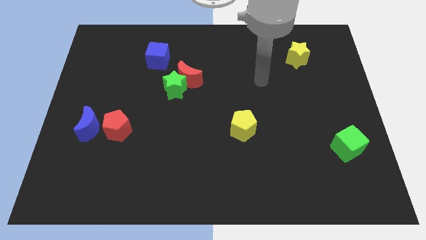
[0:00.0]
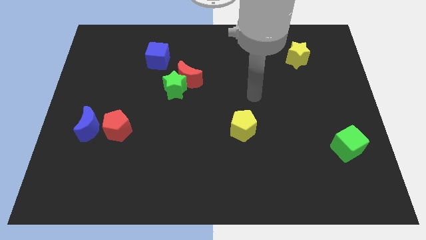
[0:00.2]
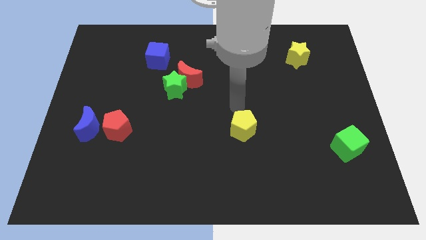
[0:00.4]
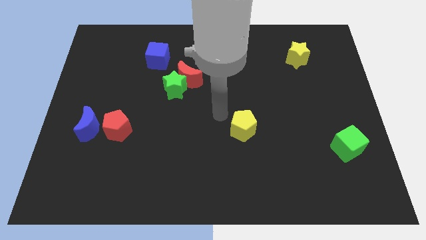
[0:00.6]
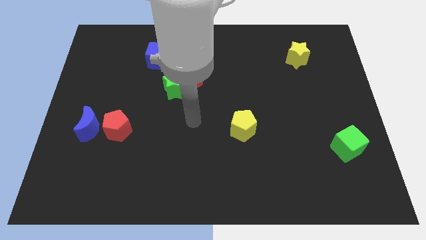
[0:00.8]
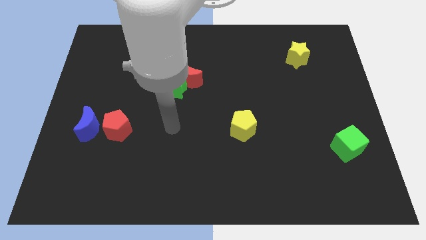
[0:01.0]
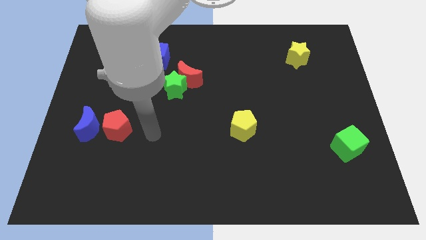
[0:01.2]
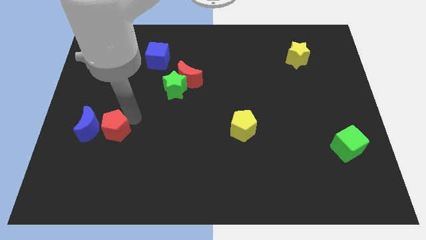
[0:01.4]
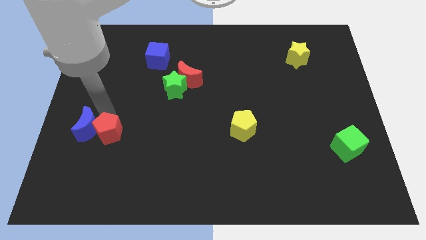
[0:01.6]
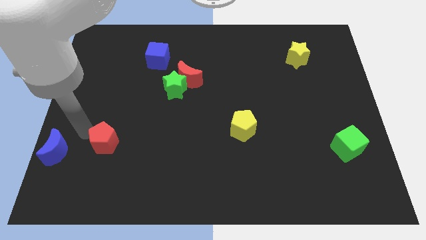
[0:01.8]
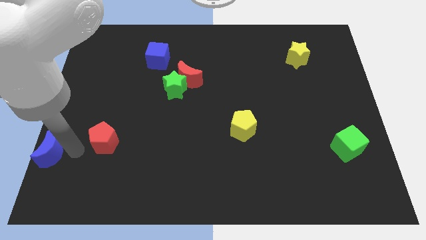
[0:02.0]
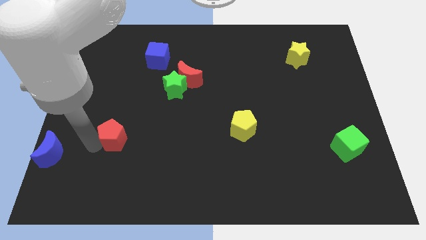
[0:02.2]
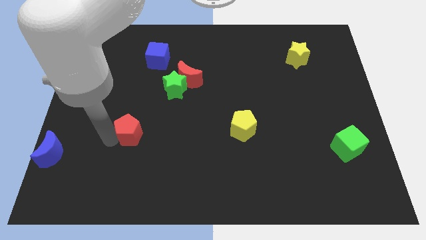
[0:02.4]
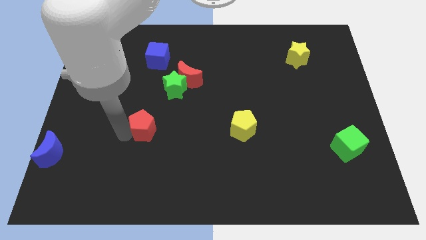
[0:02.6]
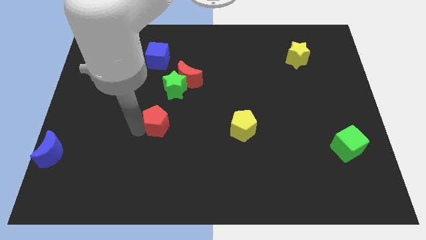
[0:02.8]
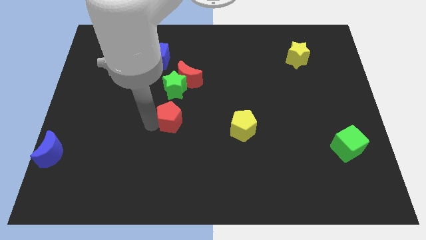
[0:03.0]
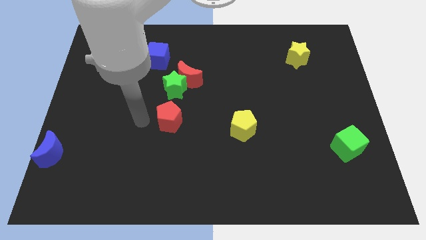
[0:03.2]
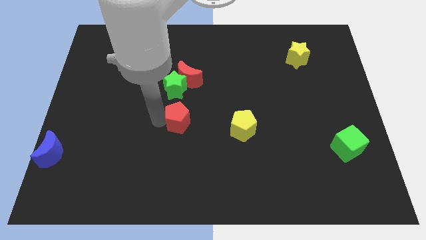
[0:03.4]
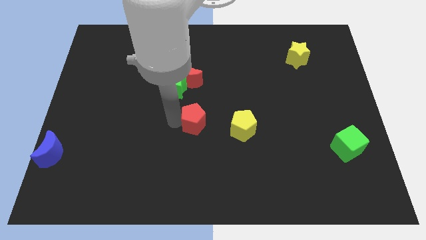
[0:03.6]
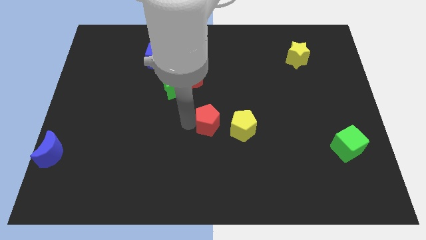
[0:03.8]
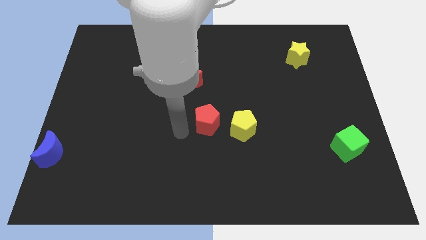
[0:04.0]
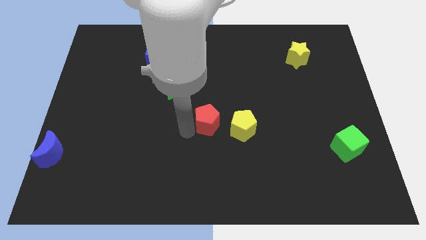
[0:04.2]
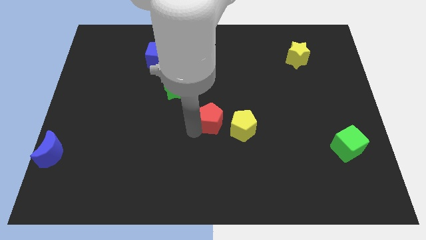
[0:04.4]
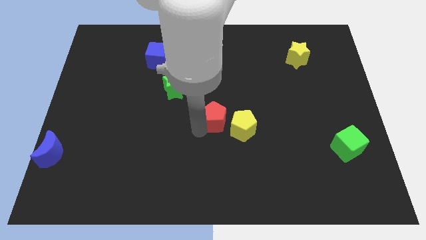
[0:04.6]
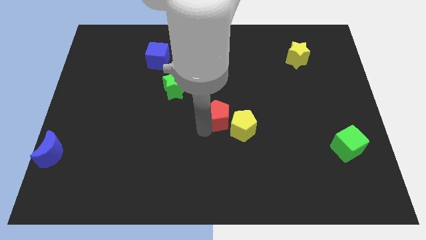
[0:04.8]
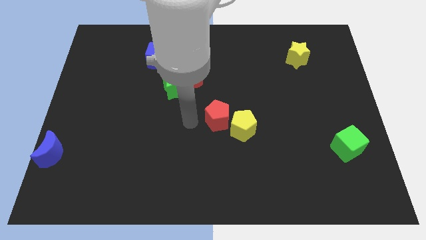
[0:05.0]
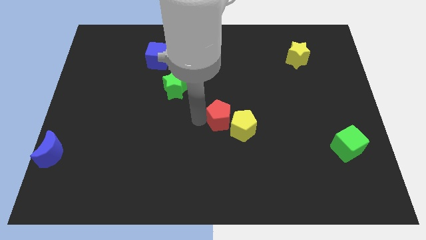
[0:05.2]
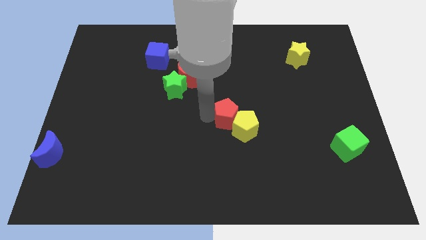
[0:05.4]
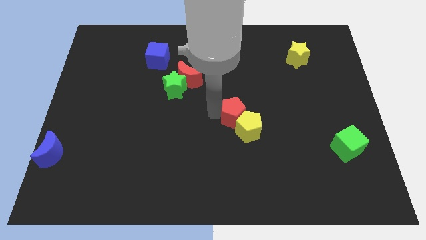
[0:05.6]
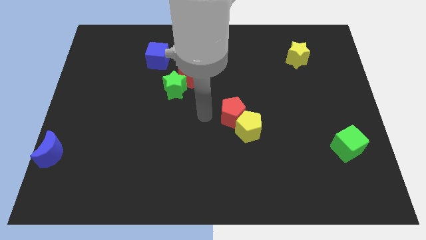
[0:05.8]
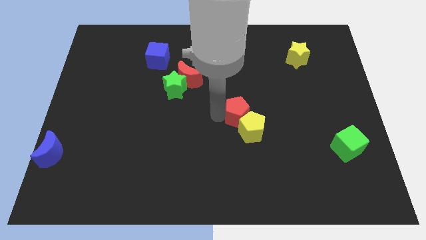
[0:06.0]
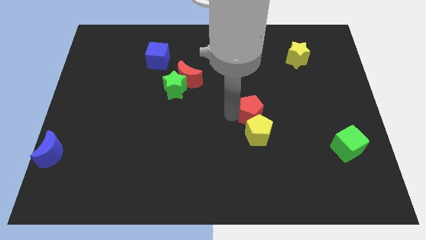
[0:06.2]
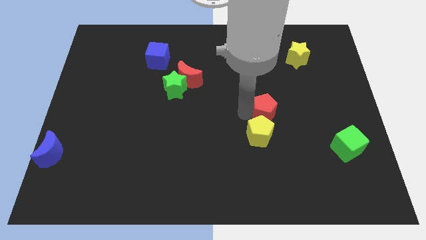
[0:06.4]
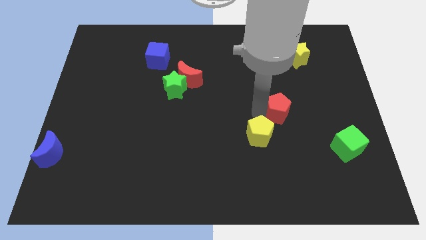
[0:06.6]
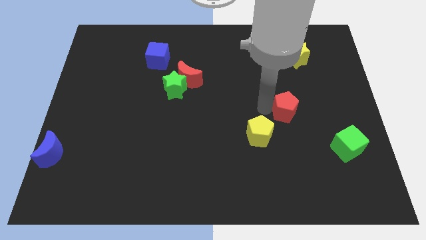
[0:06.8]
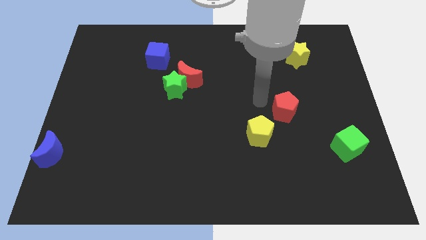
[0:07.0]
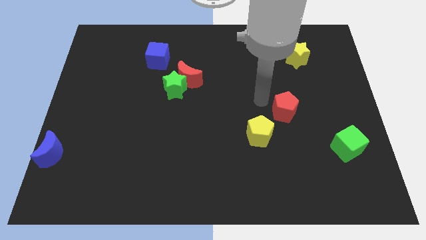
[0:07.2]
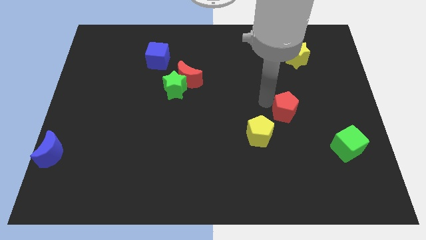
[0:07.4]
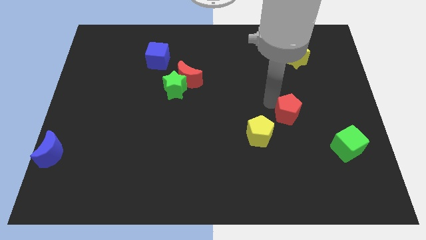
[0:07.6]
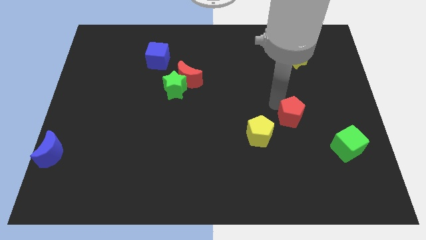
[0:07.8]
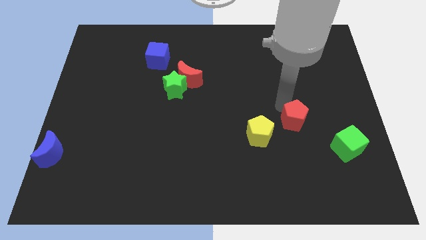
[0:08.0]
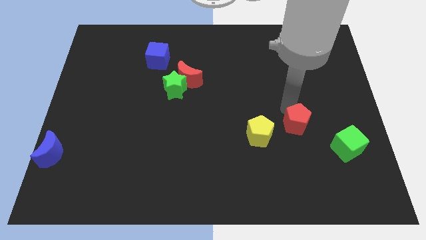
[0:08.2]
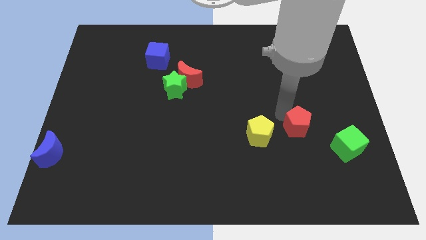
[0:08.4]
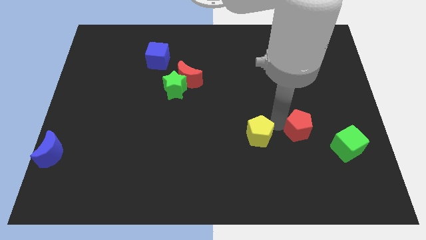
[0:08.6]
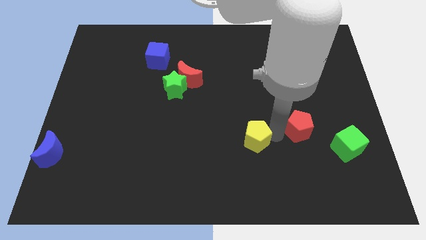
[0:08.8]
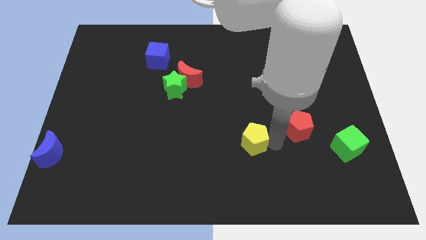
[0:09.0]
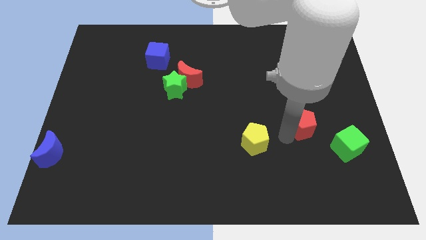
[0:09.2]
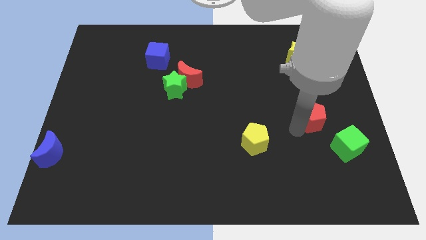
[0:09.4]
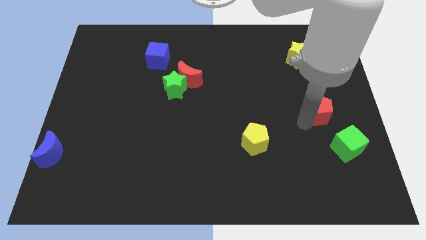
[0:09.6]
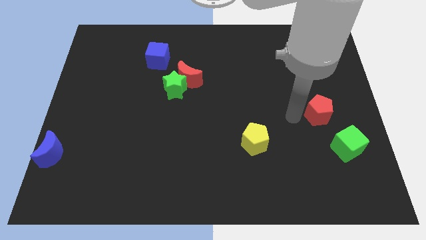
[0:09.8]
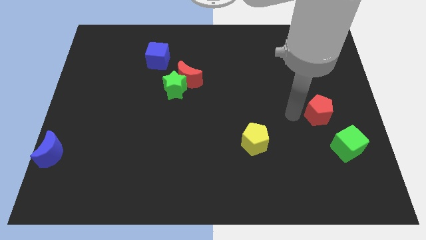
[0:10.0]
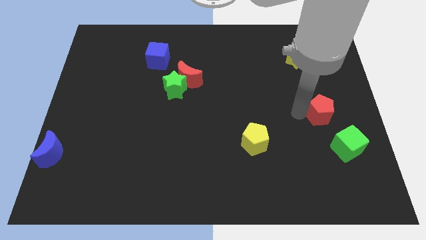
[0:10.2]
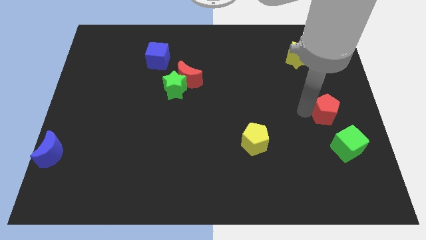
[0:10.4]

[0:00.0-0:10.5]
move the red pentagon to the center right

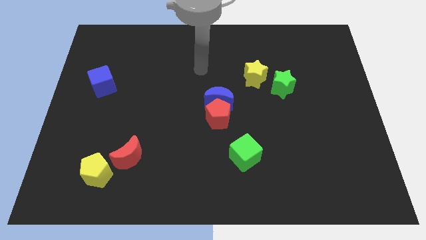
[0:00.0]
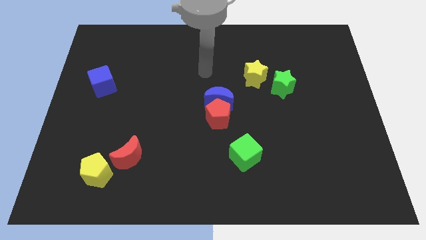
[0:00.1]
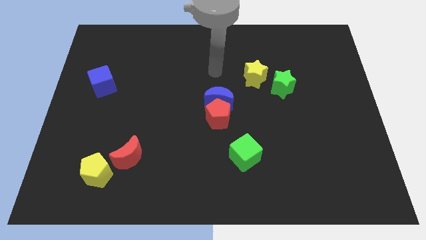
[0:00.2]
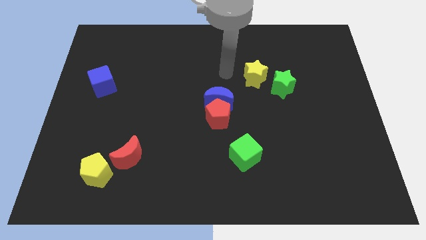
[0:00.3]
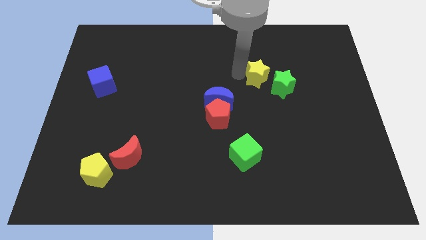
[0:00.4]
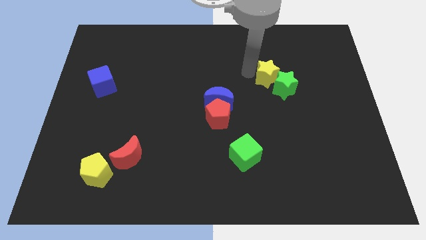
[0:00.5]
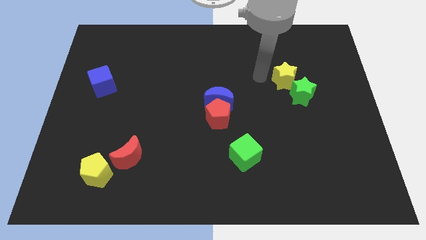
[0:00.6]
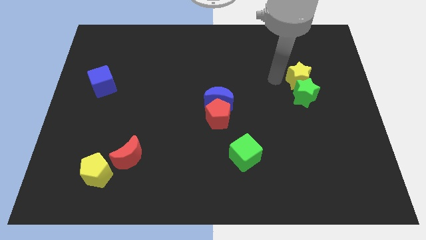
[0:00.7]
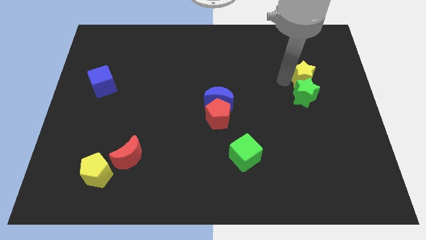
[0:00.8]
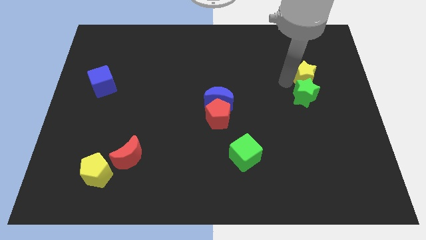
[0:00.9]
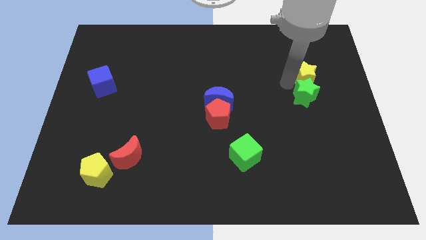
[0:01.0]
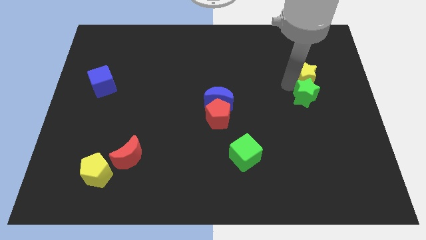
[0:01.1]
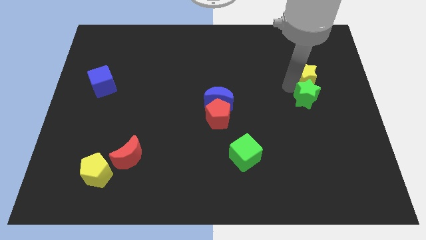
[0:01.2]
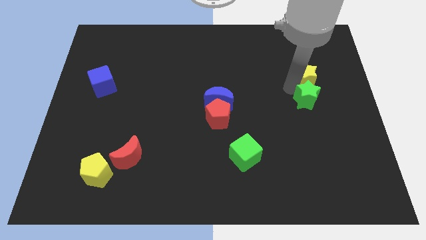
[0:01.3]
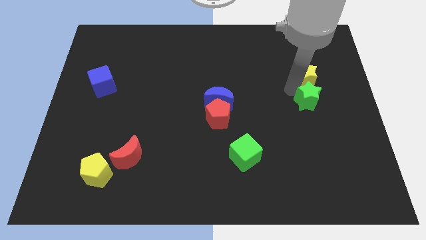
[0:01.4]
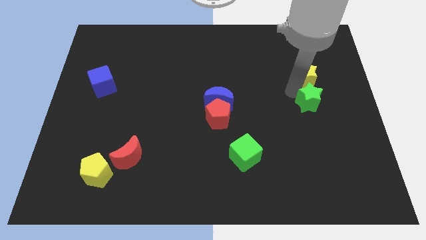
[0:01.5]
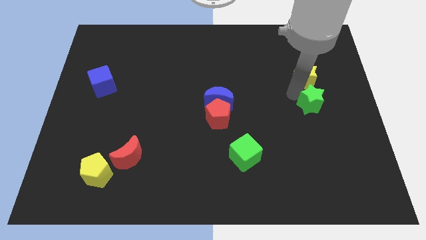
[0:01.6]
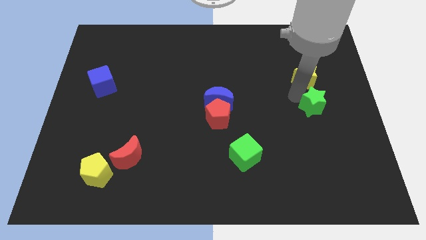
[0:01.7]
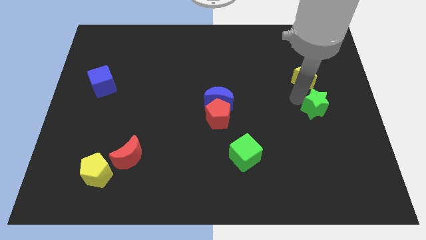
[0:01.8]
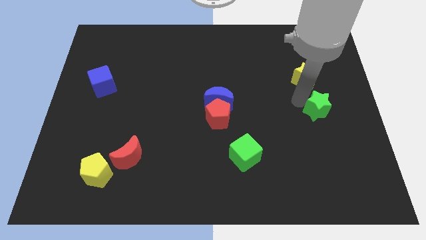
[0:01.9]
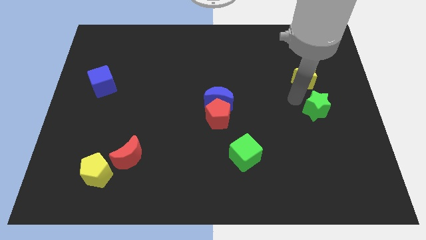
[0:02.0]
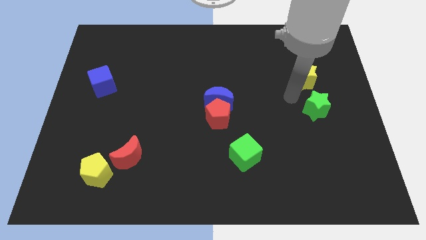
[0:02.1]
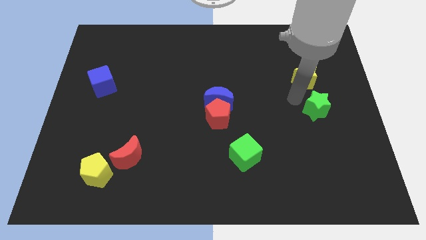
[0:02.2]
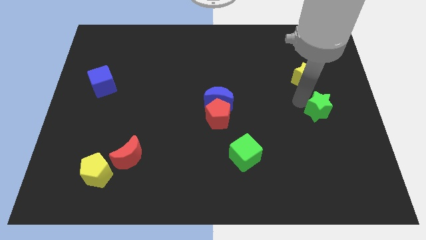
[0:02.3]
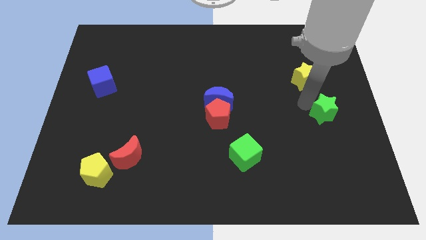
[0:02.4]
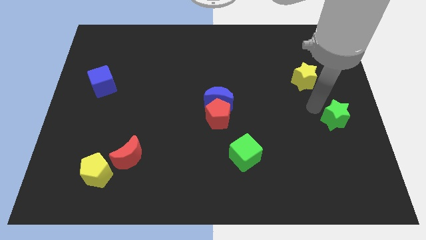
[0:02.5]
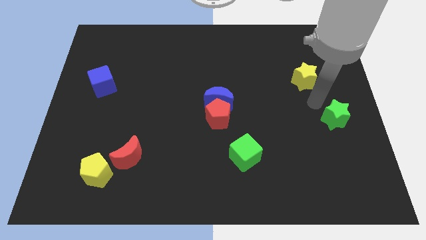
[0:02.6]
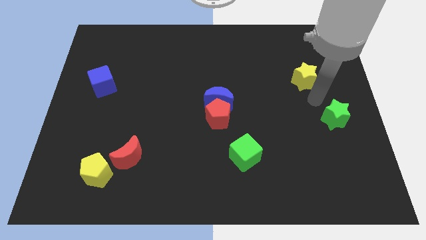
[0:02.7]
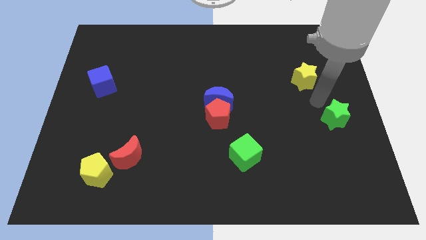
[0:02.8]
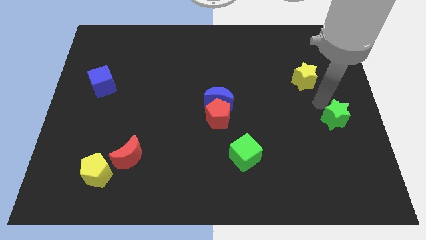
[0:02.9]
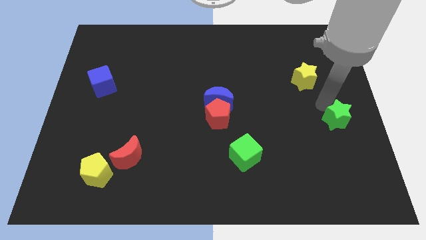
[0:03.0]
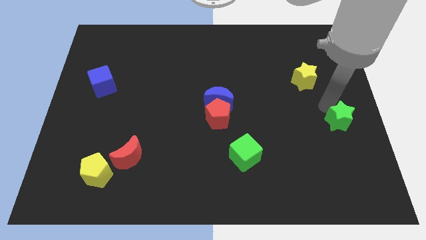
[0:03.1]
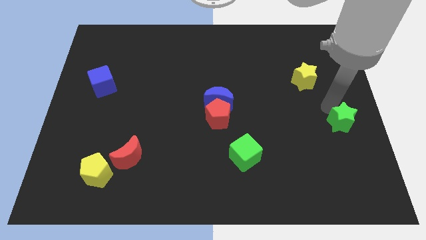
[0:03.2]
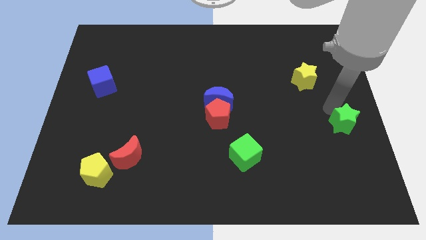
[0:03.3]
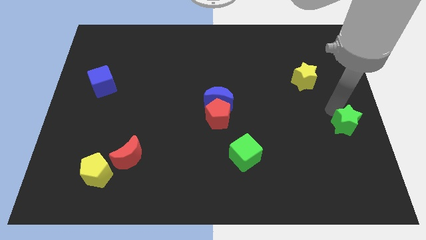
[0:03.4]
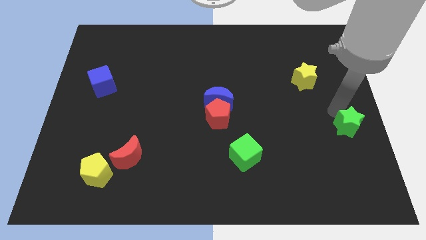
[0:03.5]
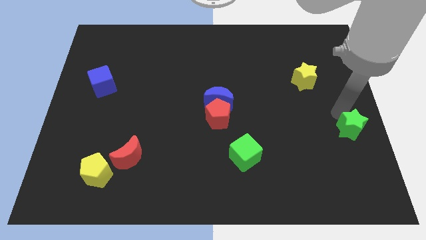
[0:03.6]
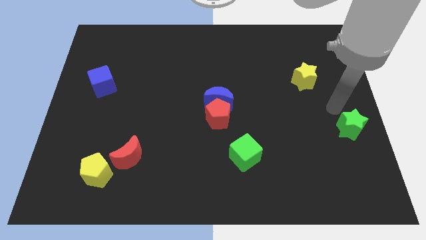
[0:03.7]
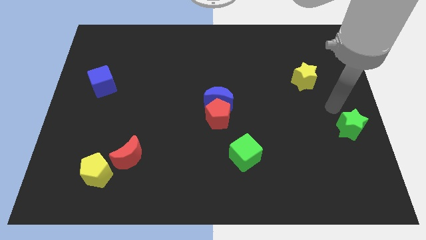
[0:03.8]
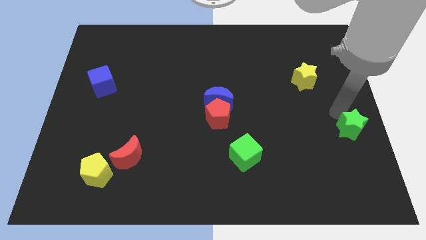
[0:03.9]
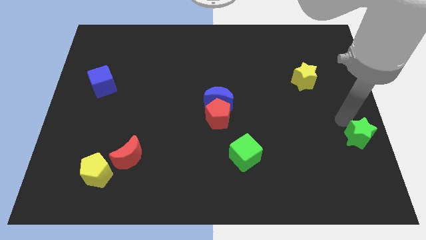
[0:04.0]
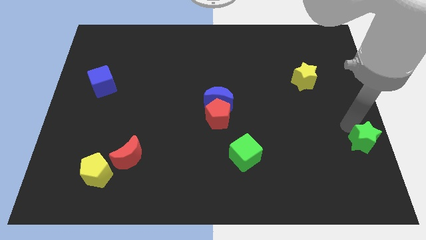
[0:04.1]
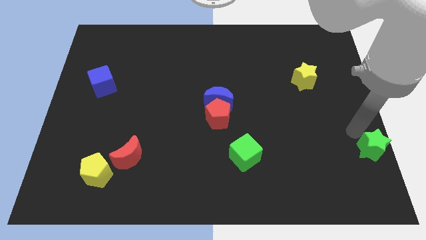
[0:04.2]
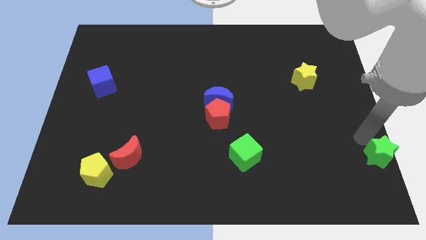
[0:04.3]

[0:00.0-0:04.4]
move the green star to the bottom right
